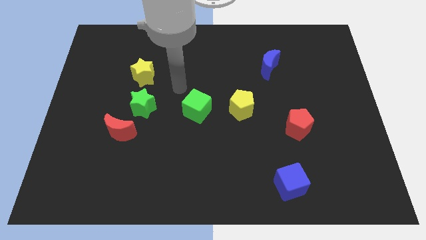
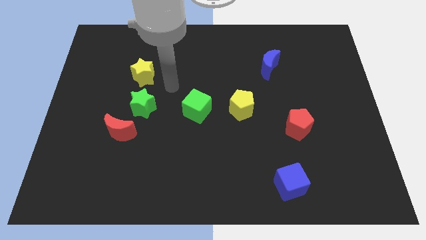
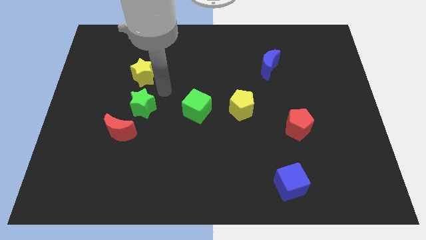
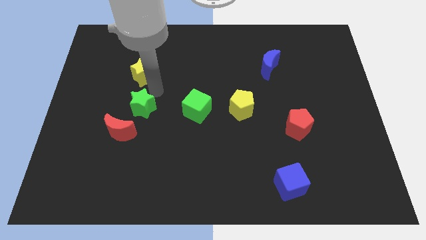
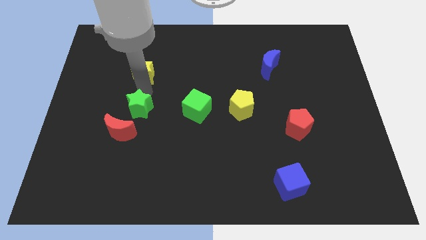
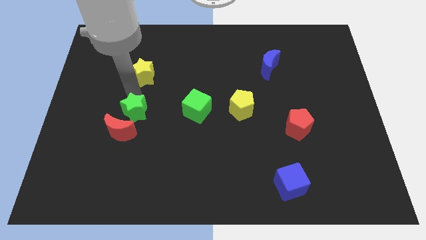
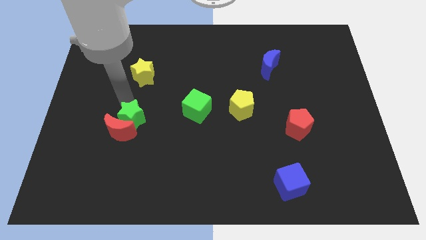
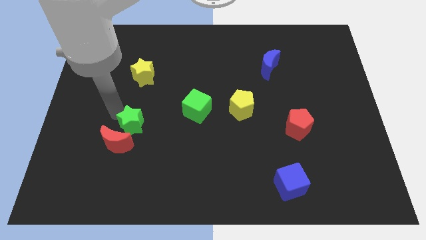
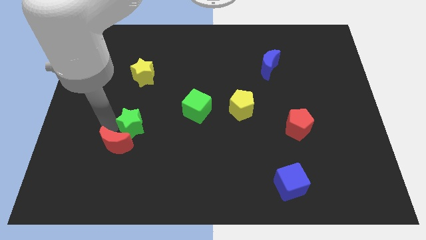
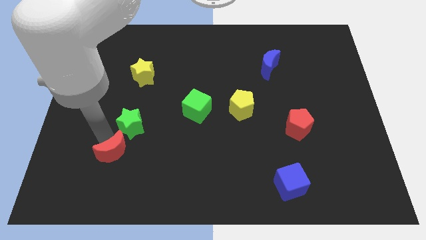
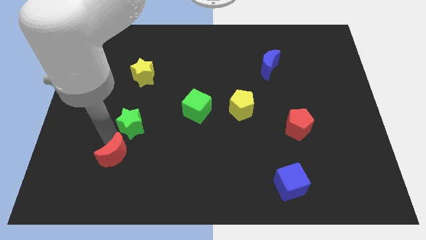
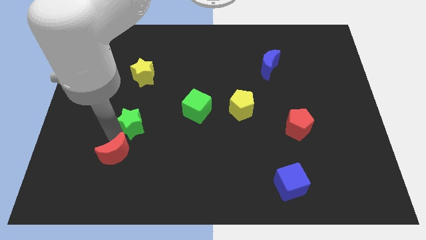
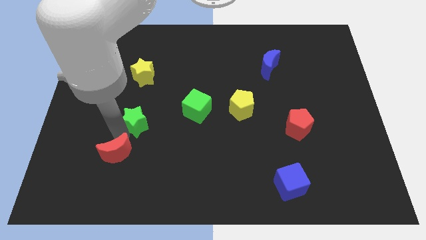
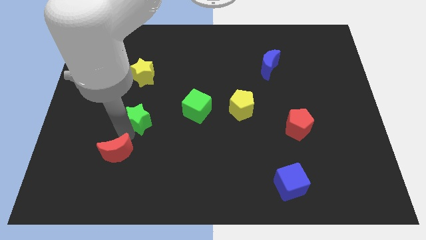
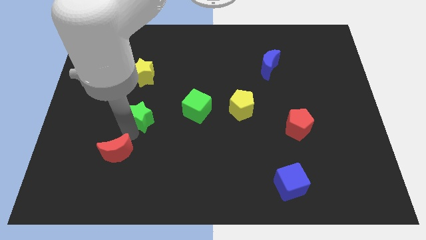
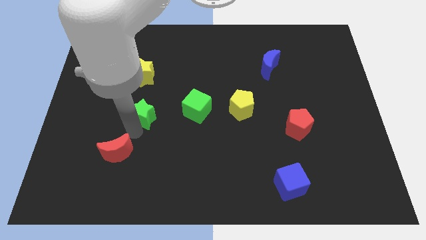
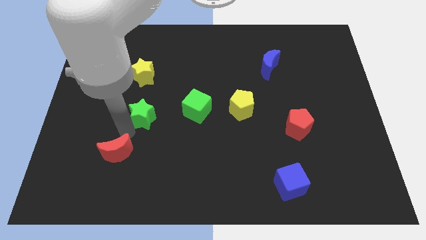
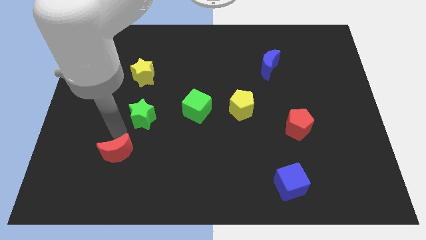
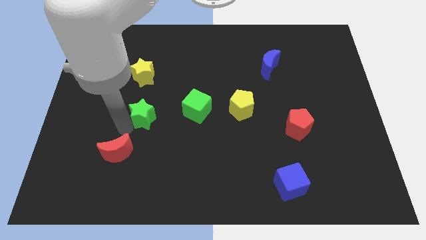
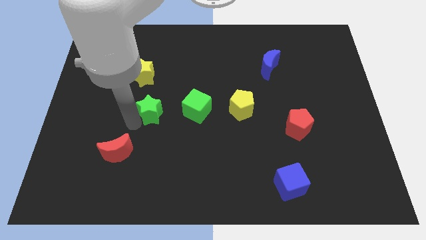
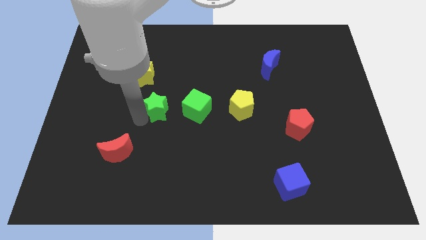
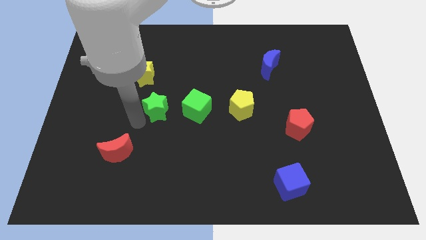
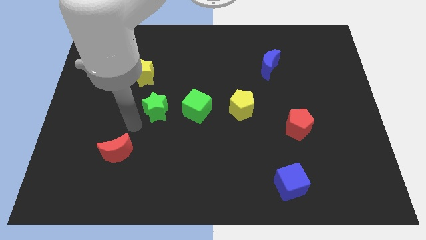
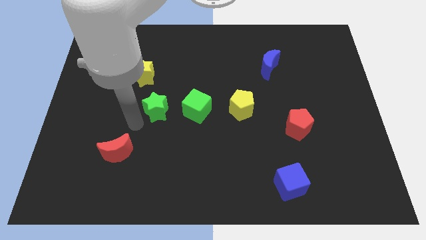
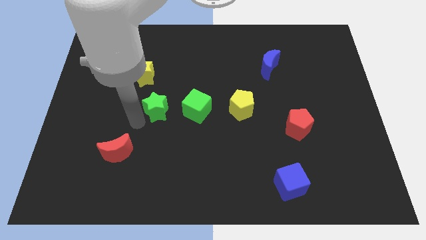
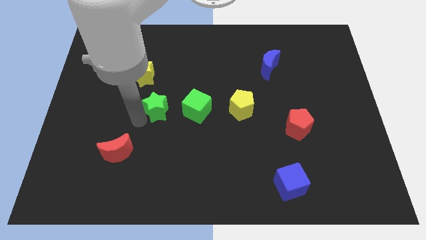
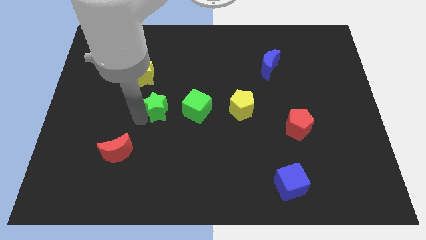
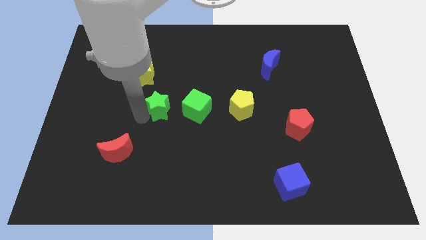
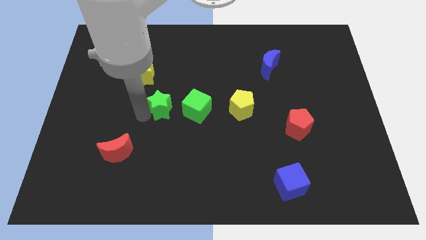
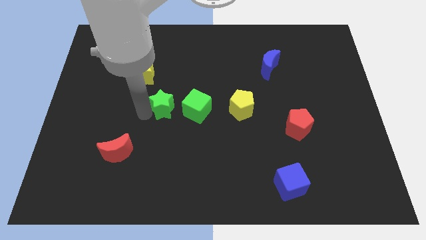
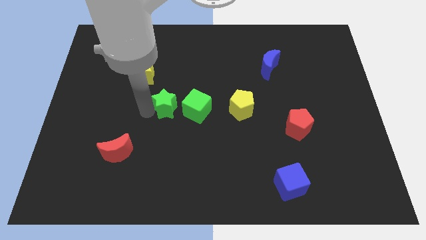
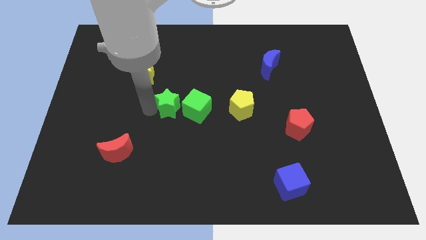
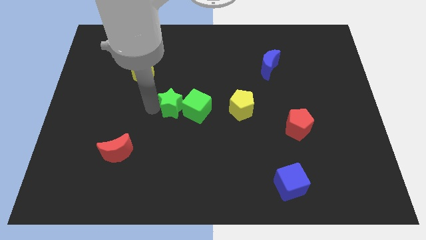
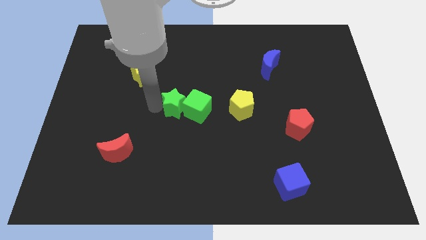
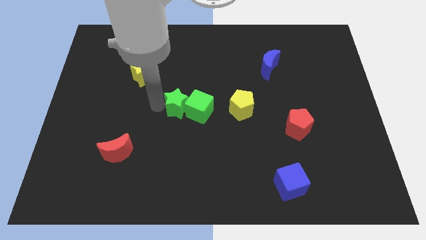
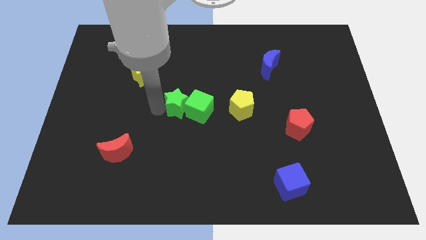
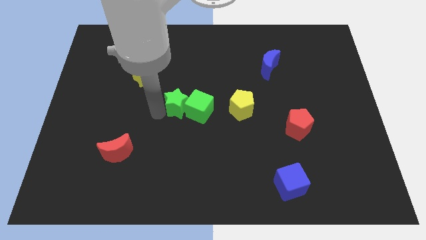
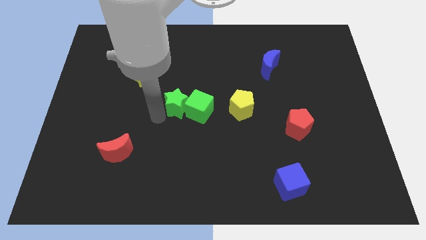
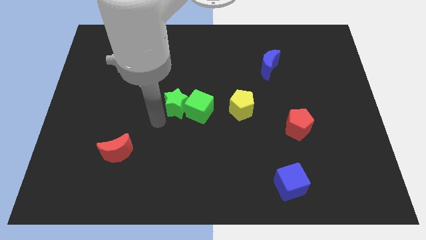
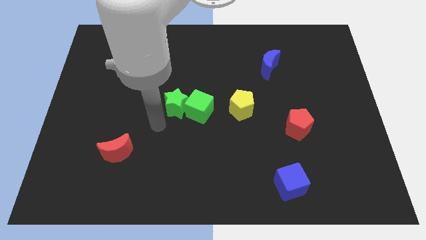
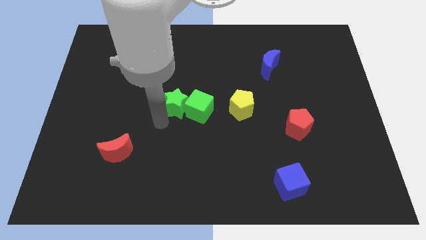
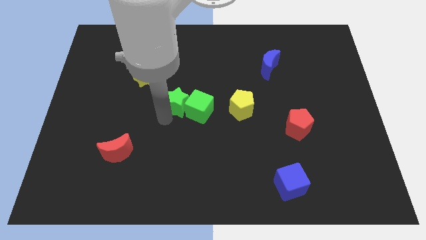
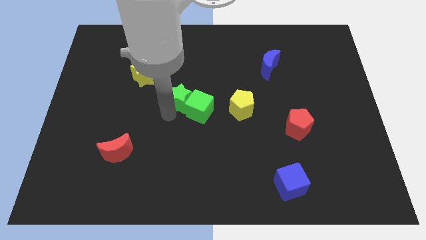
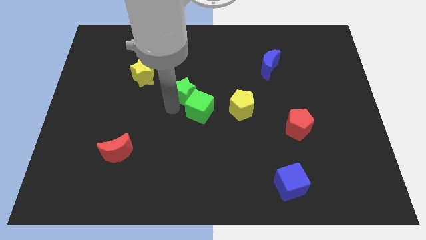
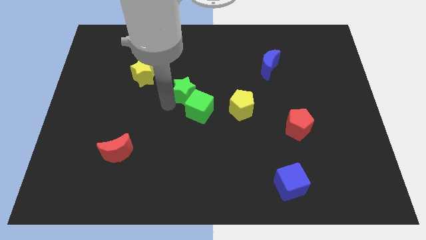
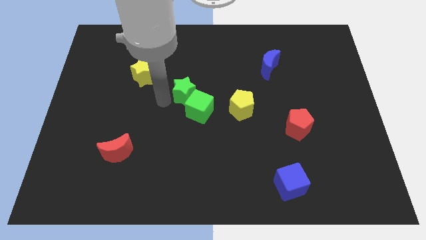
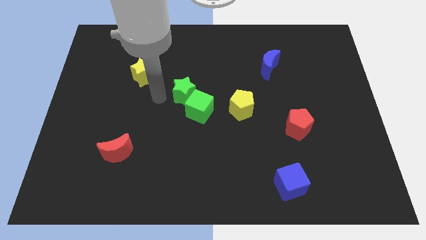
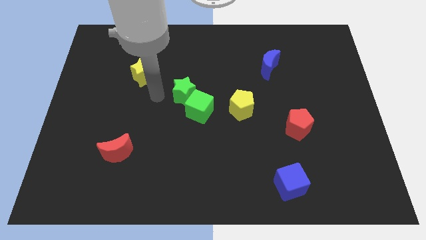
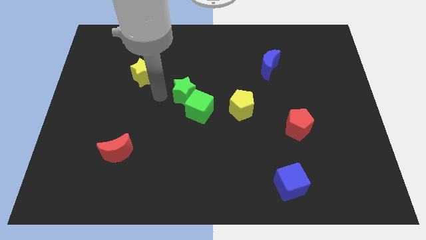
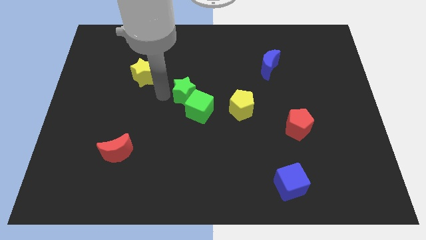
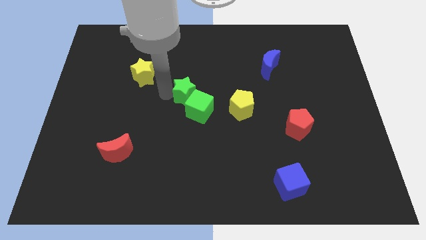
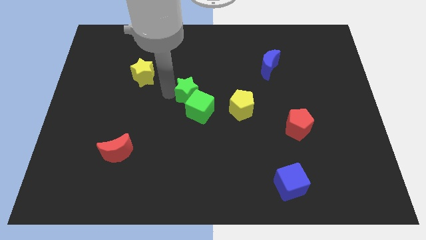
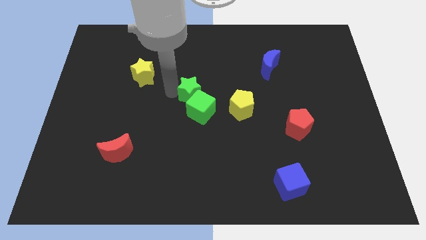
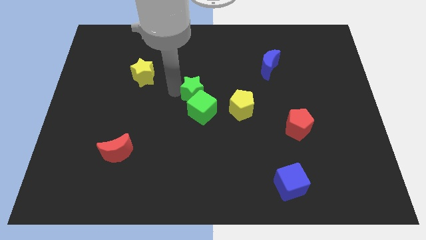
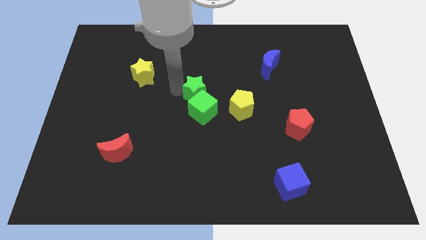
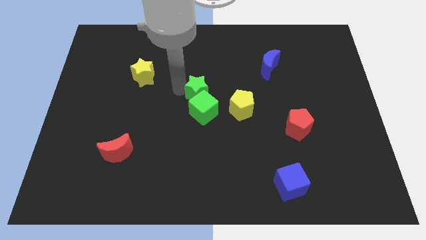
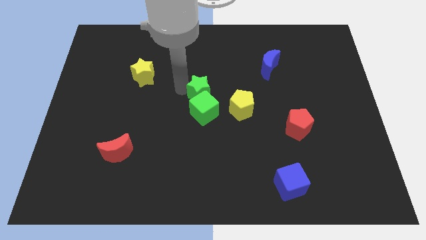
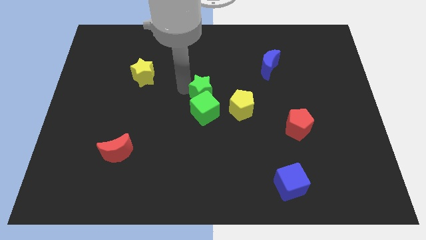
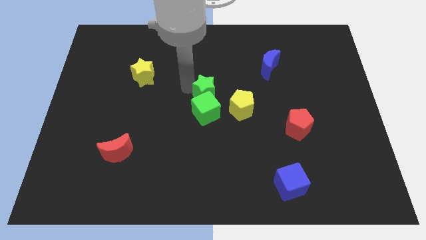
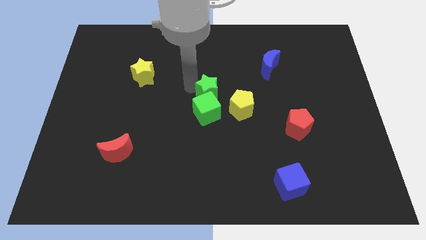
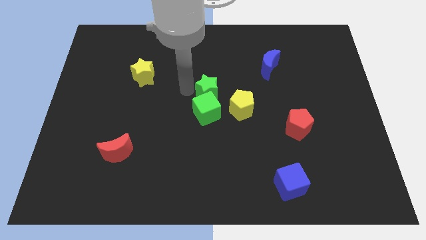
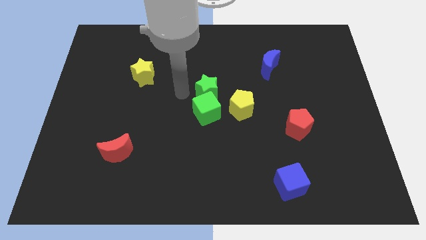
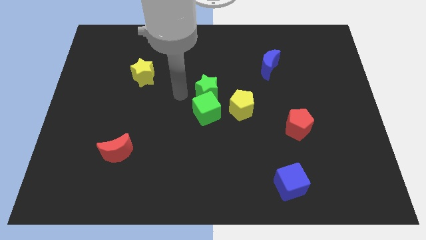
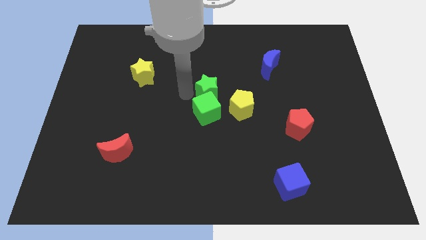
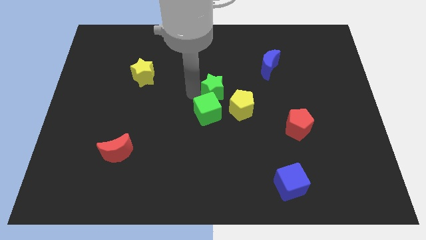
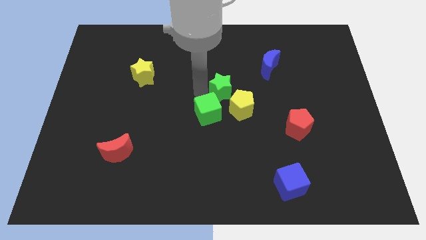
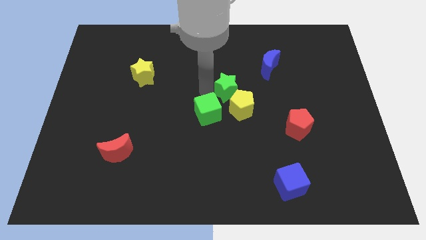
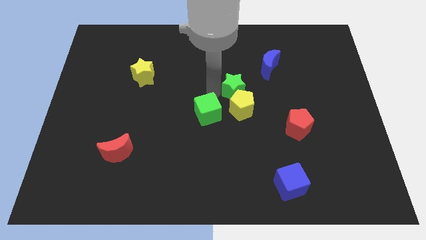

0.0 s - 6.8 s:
push the green star diagonally down and to the left of the blue moon
